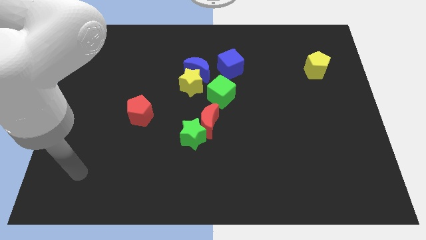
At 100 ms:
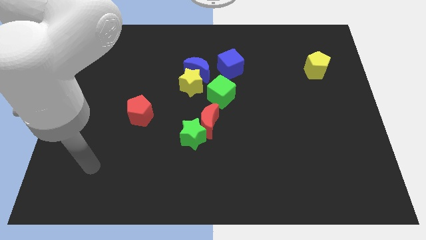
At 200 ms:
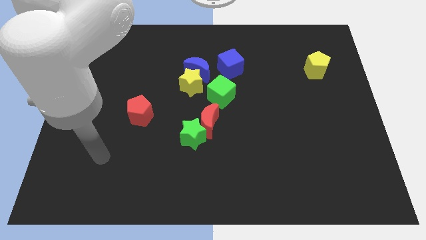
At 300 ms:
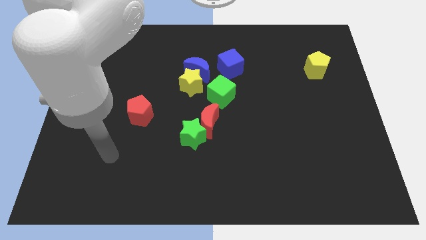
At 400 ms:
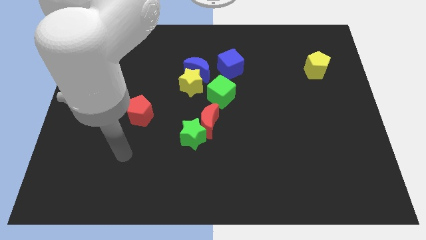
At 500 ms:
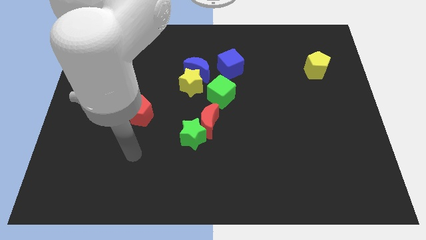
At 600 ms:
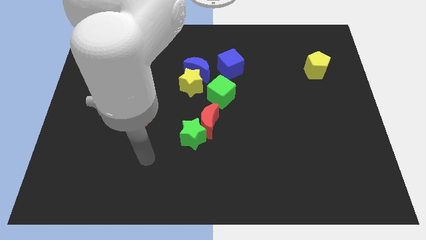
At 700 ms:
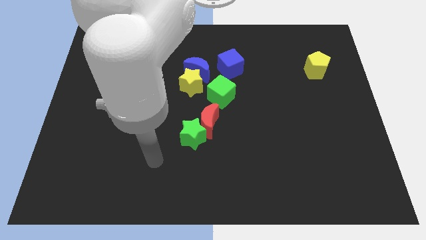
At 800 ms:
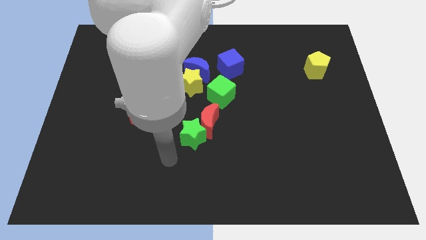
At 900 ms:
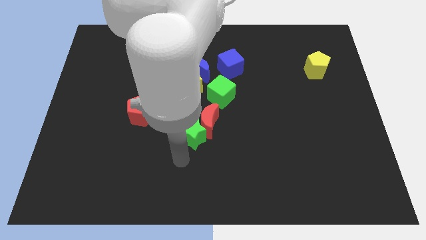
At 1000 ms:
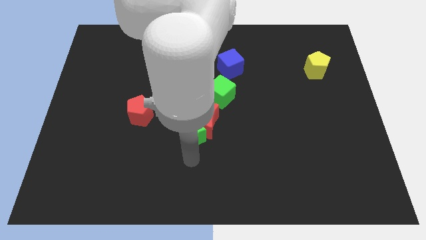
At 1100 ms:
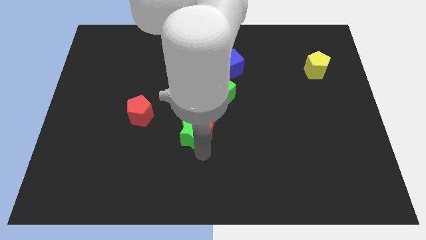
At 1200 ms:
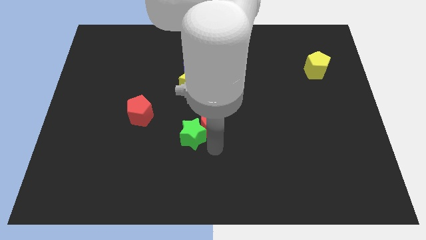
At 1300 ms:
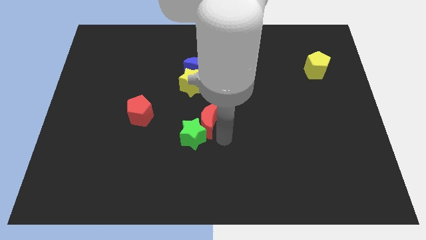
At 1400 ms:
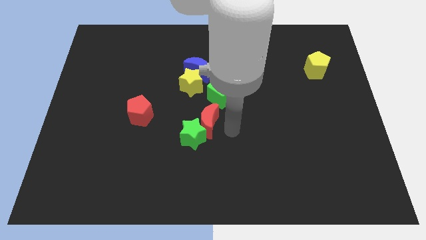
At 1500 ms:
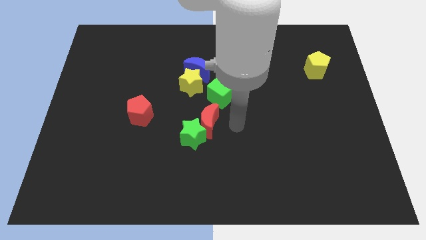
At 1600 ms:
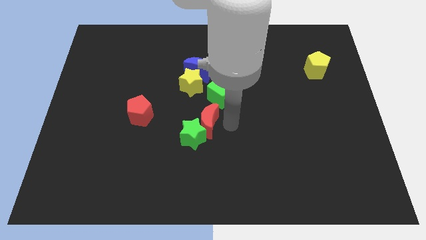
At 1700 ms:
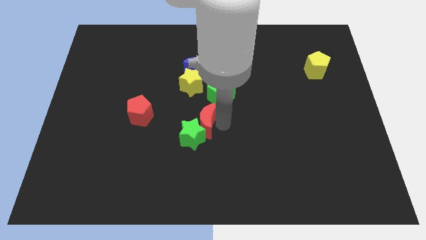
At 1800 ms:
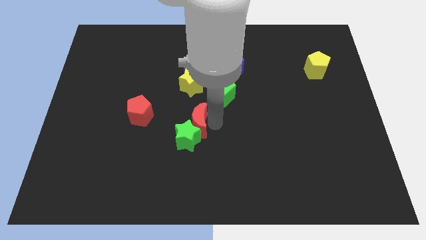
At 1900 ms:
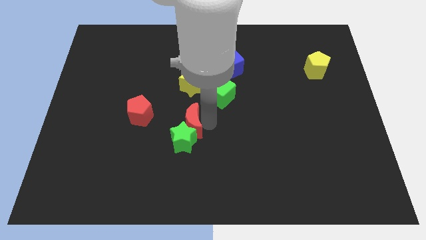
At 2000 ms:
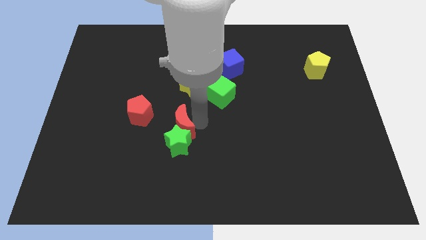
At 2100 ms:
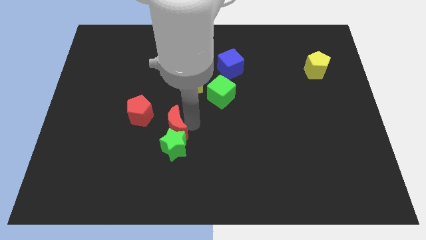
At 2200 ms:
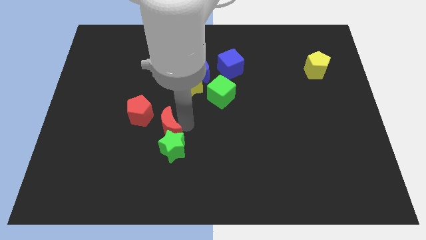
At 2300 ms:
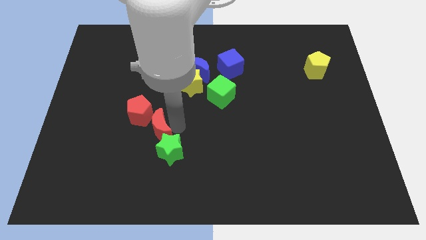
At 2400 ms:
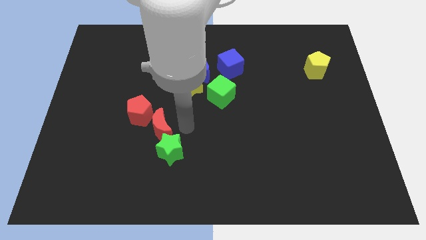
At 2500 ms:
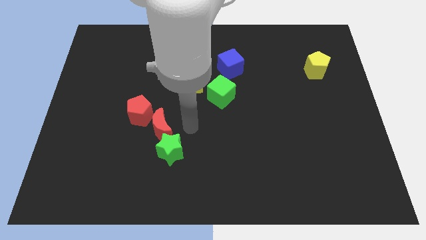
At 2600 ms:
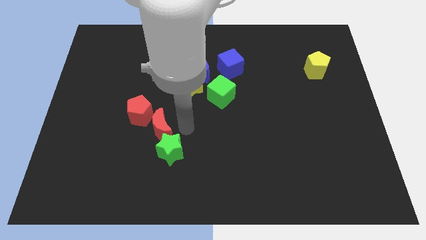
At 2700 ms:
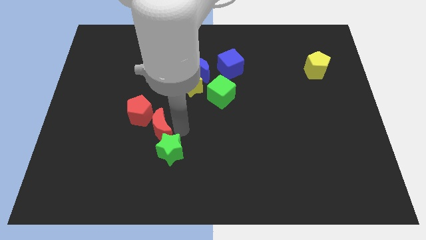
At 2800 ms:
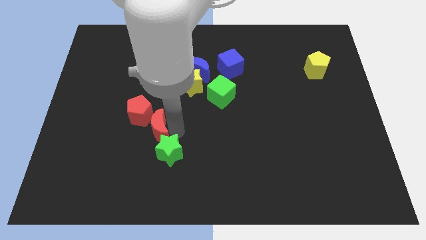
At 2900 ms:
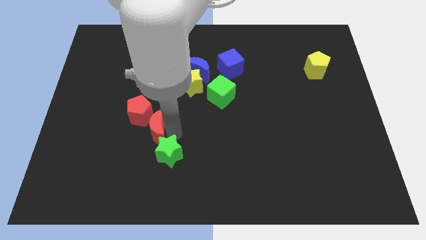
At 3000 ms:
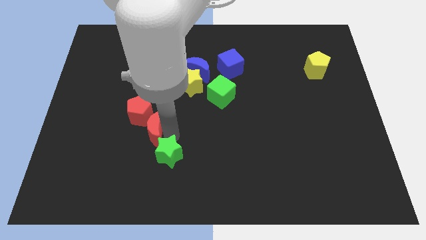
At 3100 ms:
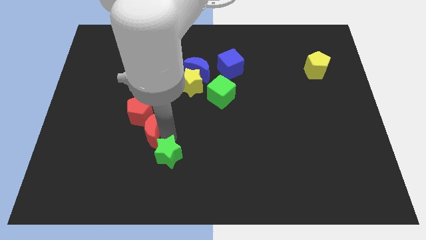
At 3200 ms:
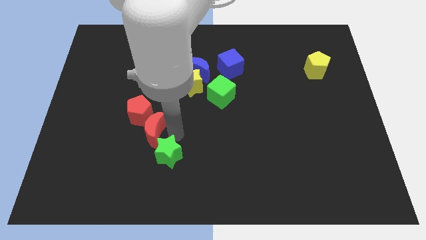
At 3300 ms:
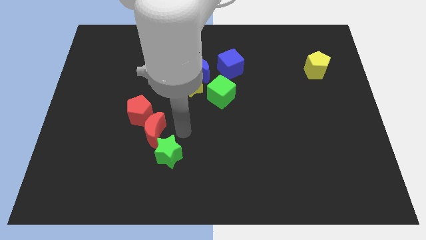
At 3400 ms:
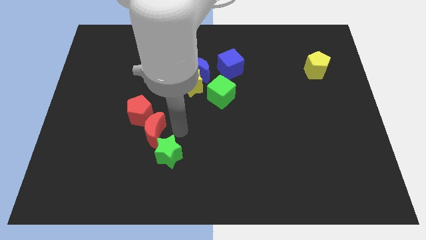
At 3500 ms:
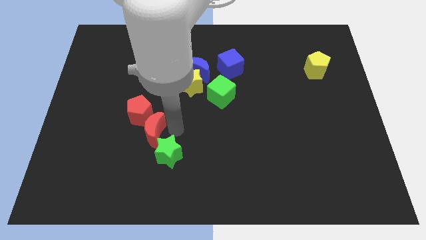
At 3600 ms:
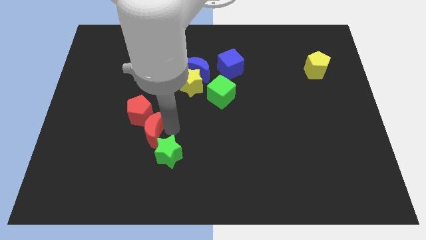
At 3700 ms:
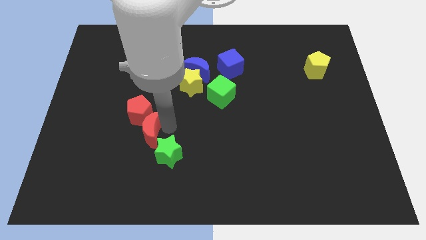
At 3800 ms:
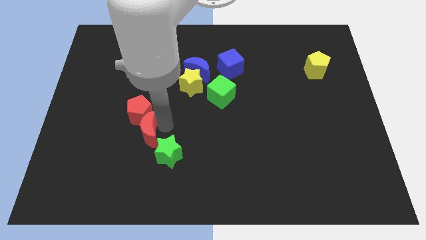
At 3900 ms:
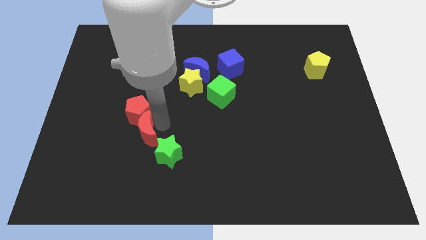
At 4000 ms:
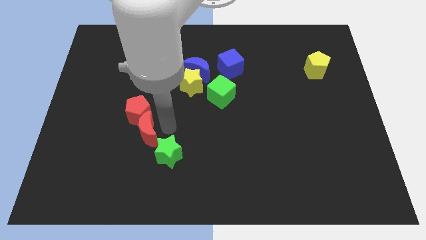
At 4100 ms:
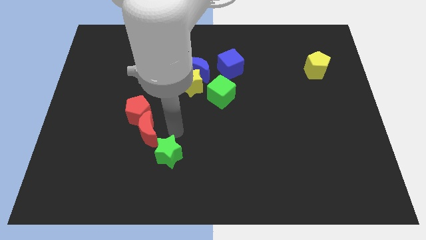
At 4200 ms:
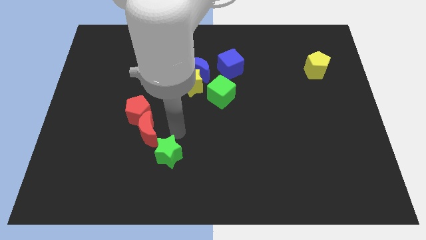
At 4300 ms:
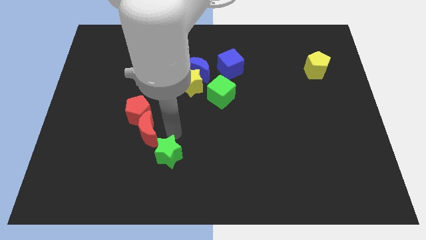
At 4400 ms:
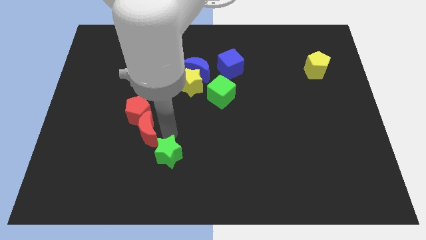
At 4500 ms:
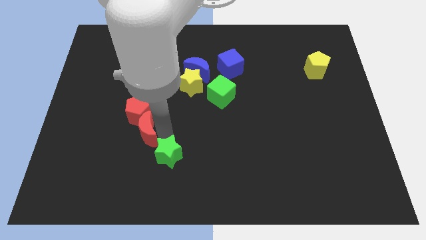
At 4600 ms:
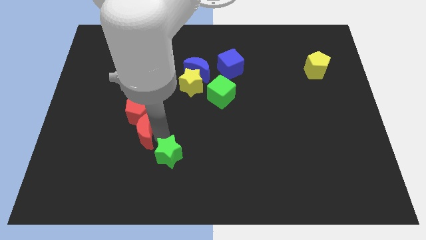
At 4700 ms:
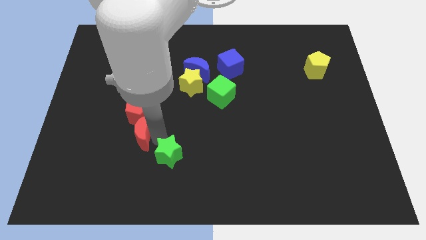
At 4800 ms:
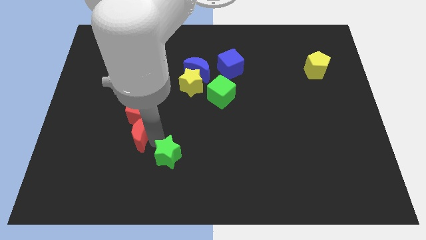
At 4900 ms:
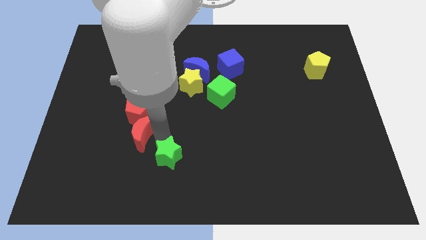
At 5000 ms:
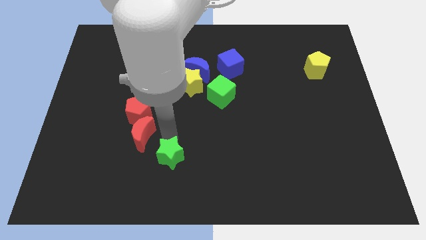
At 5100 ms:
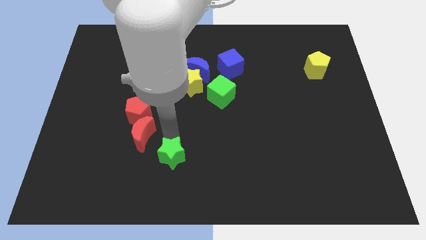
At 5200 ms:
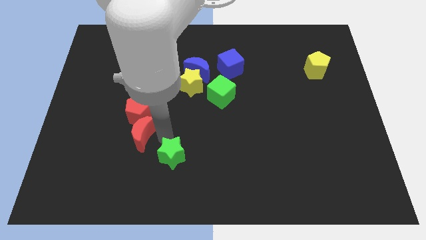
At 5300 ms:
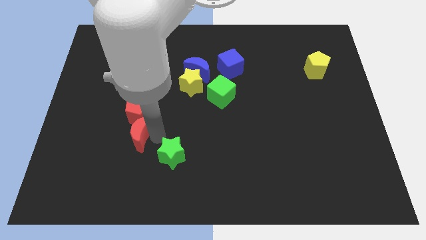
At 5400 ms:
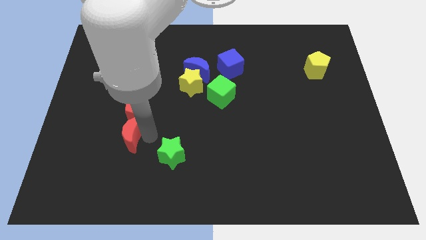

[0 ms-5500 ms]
move the red moon diagonally down and to the left of the red pentagon

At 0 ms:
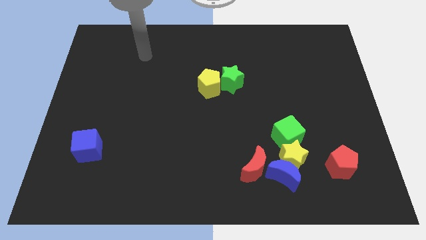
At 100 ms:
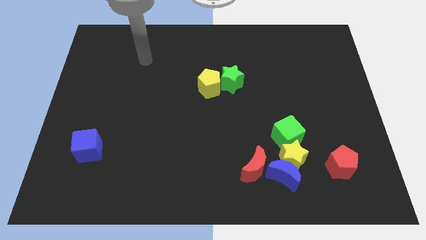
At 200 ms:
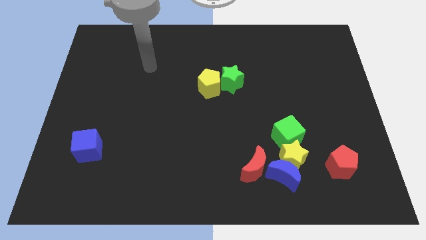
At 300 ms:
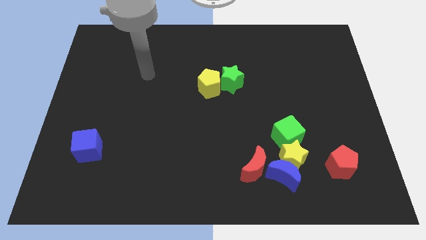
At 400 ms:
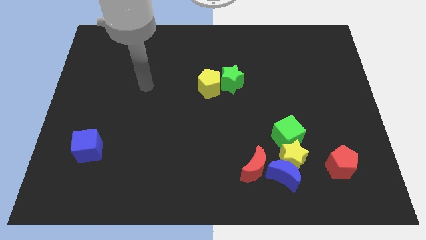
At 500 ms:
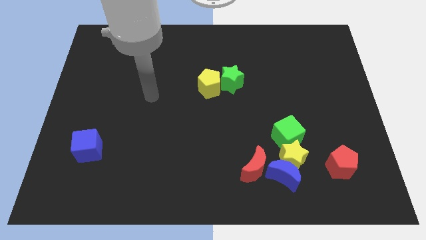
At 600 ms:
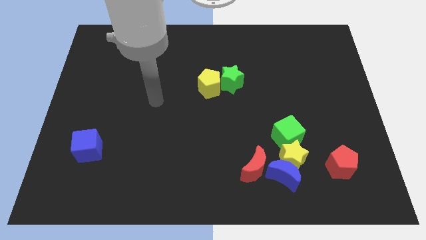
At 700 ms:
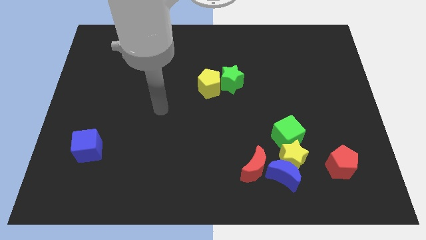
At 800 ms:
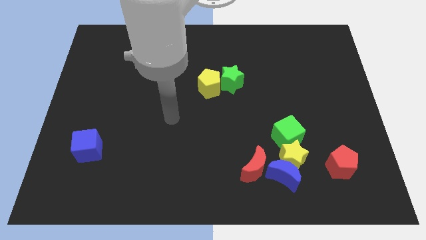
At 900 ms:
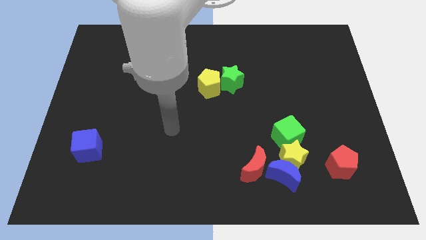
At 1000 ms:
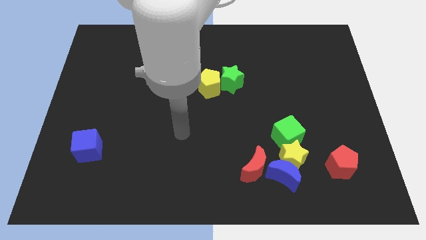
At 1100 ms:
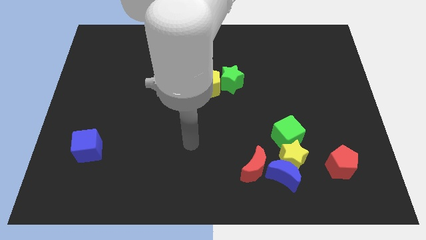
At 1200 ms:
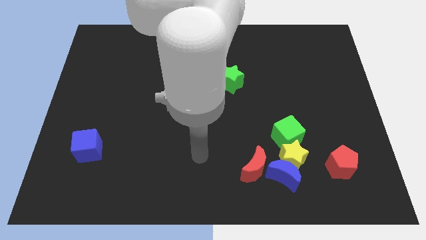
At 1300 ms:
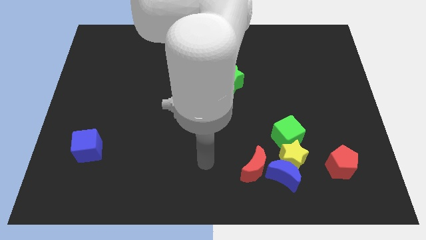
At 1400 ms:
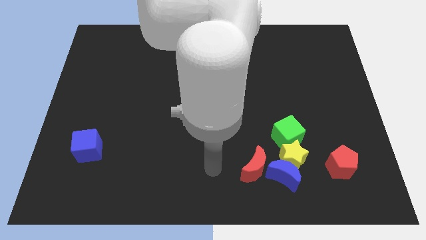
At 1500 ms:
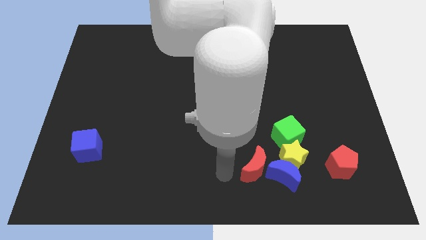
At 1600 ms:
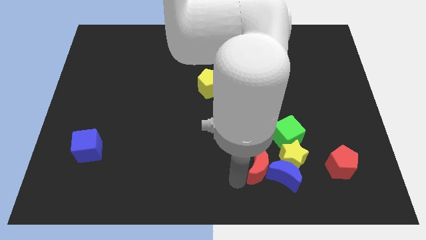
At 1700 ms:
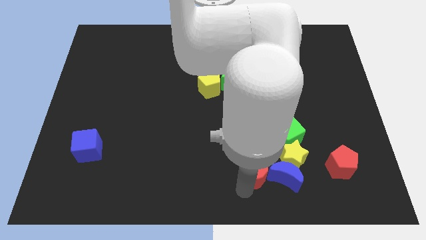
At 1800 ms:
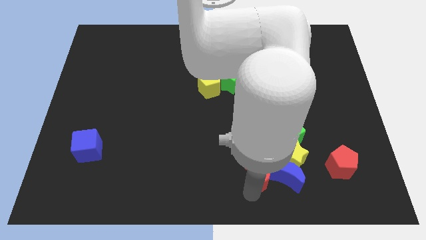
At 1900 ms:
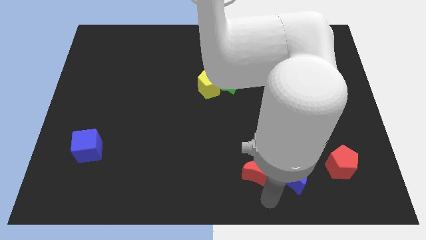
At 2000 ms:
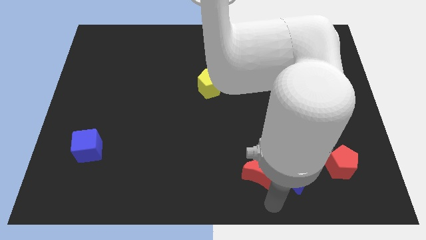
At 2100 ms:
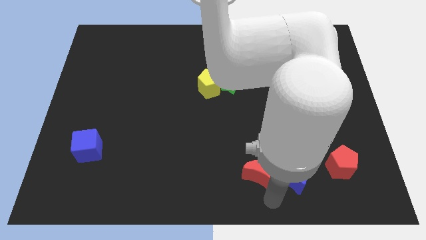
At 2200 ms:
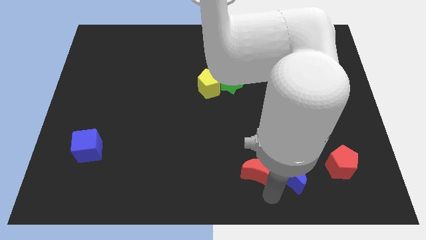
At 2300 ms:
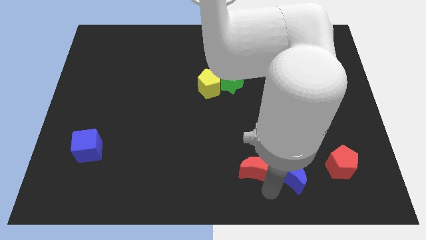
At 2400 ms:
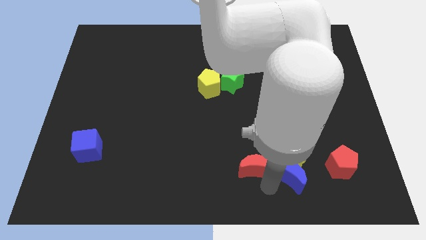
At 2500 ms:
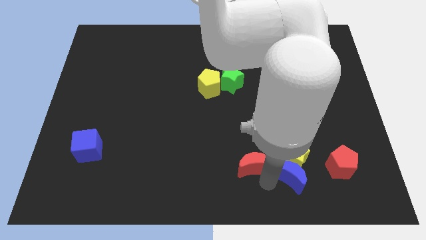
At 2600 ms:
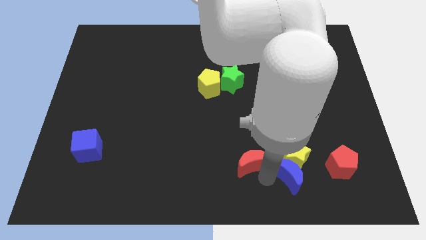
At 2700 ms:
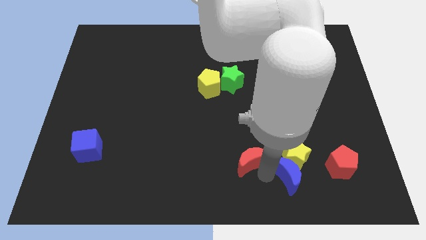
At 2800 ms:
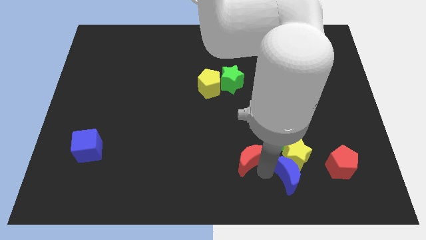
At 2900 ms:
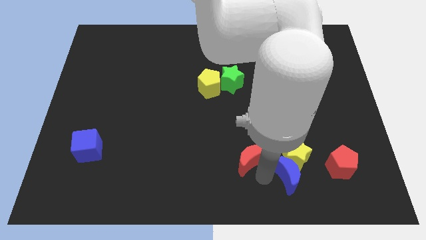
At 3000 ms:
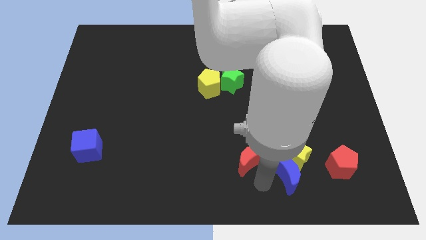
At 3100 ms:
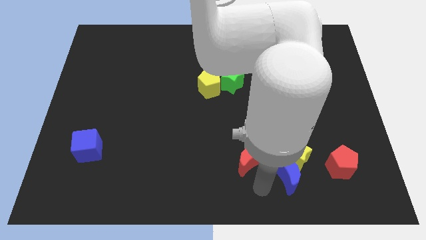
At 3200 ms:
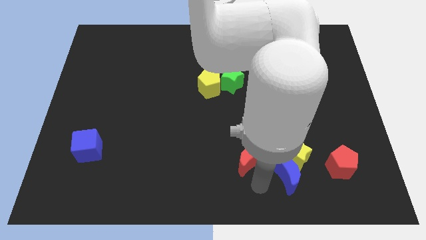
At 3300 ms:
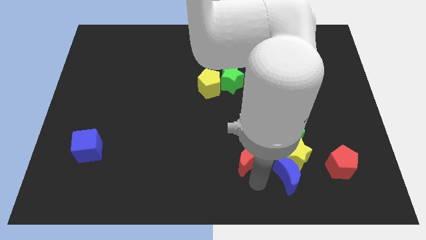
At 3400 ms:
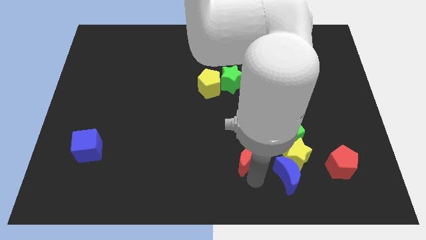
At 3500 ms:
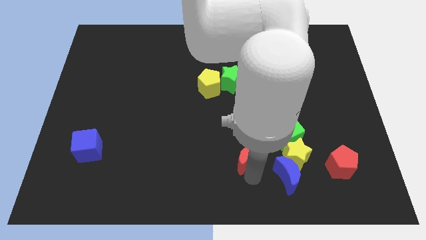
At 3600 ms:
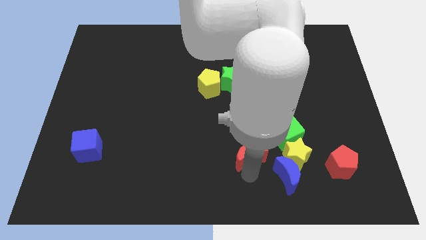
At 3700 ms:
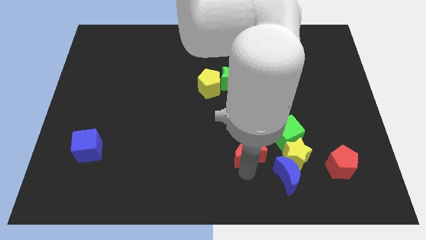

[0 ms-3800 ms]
move the red moon left of the green cube
